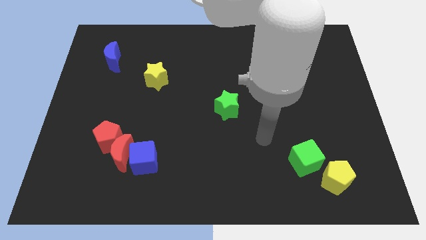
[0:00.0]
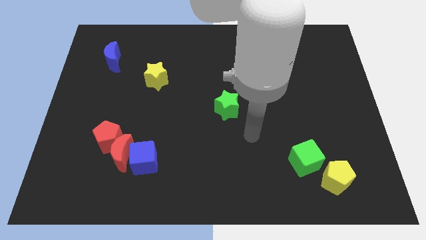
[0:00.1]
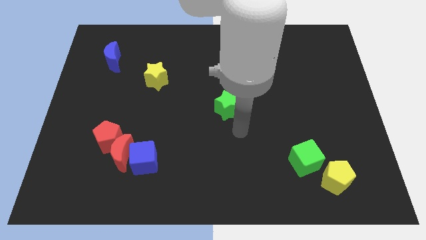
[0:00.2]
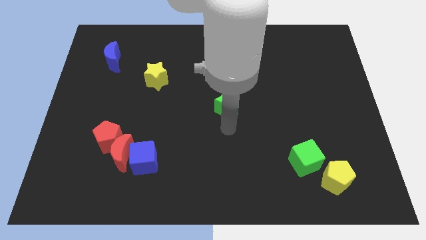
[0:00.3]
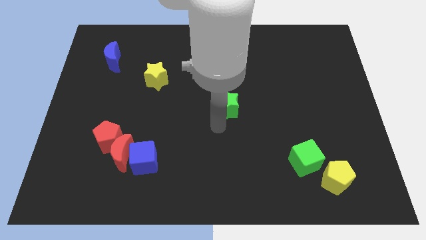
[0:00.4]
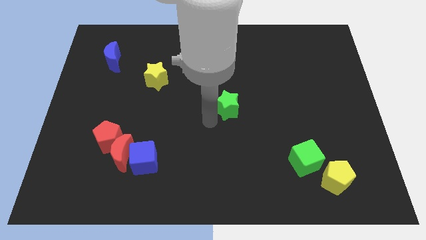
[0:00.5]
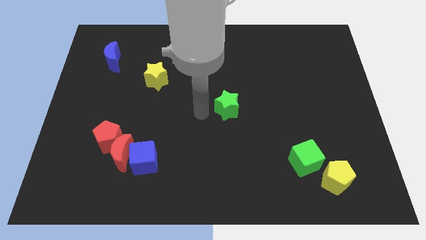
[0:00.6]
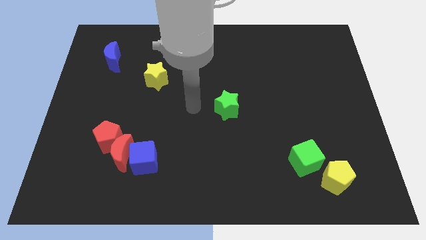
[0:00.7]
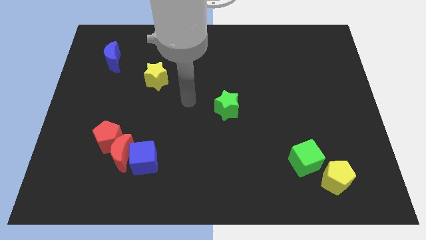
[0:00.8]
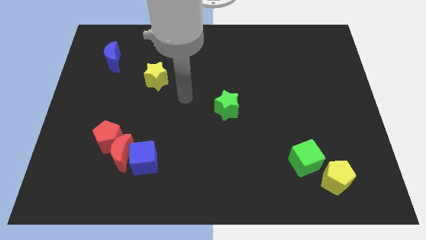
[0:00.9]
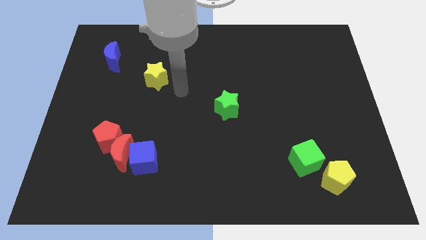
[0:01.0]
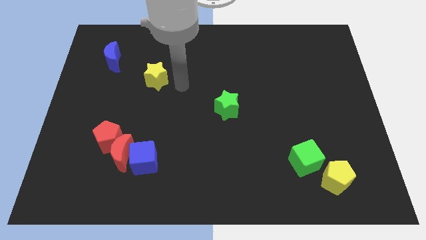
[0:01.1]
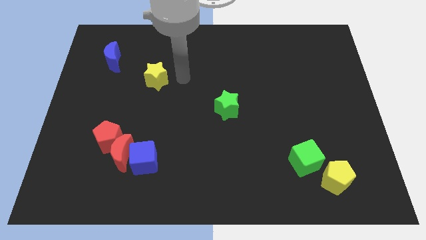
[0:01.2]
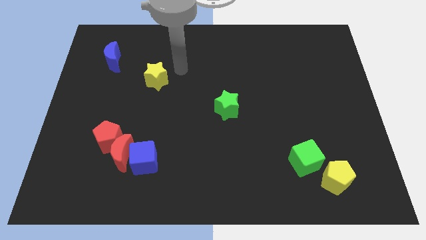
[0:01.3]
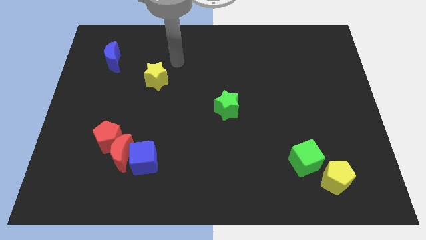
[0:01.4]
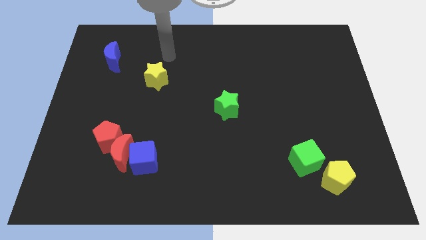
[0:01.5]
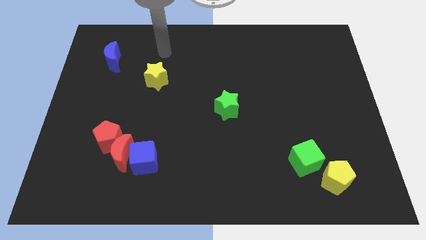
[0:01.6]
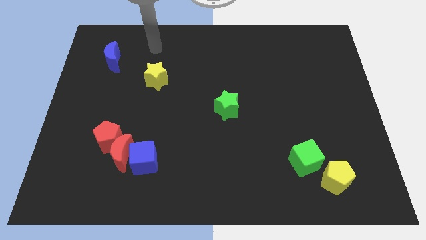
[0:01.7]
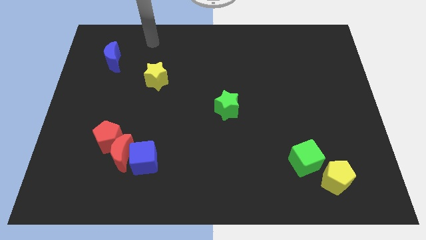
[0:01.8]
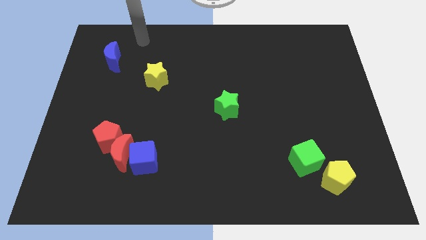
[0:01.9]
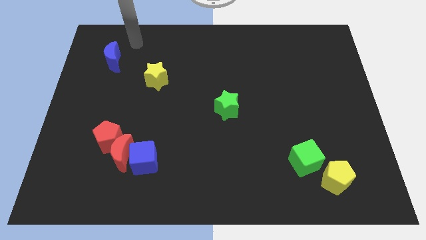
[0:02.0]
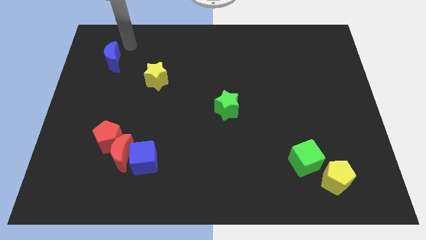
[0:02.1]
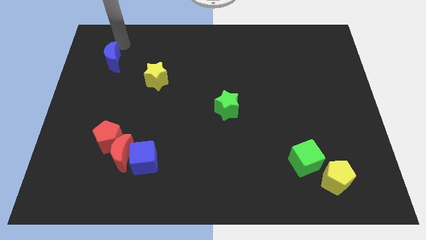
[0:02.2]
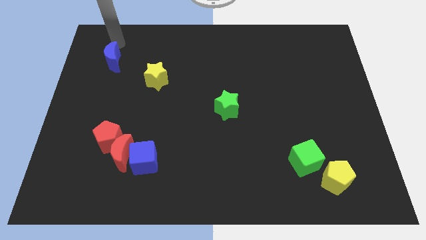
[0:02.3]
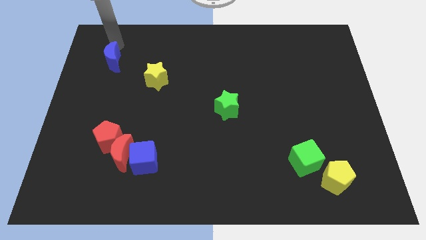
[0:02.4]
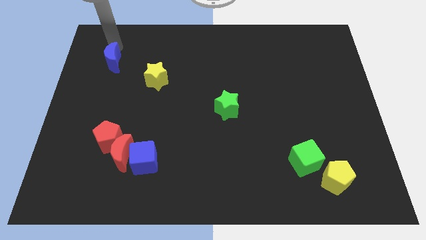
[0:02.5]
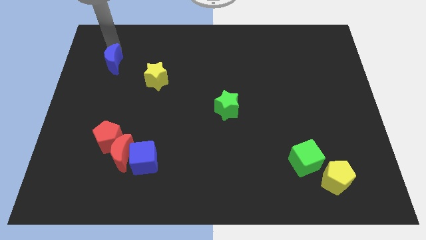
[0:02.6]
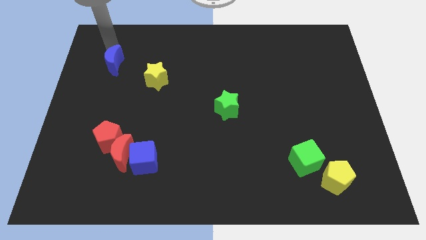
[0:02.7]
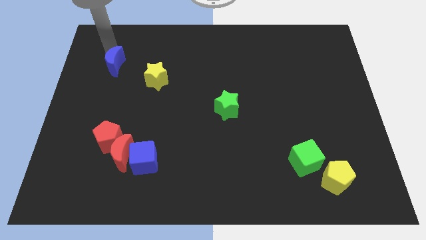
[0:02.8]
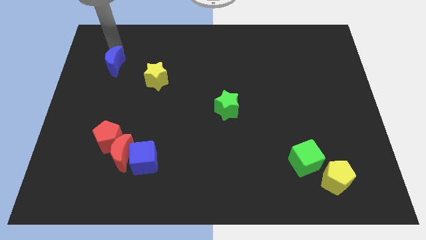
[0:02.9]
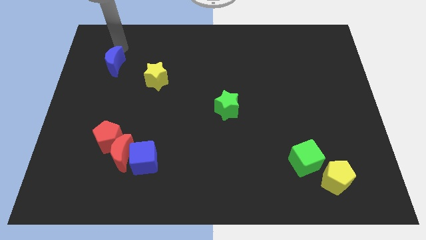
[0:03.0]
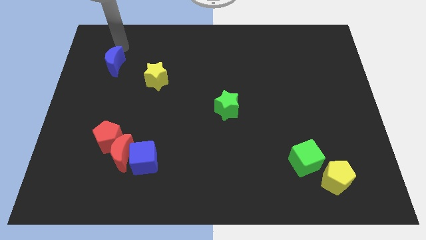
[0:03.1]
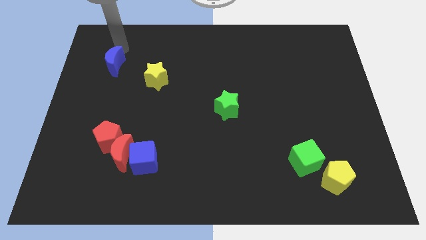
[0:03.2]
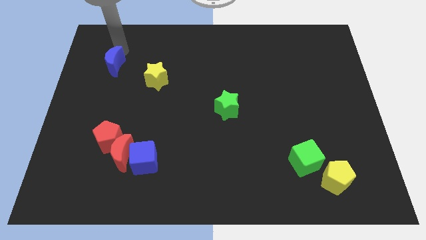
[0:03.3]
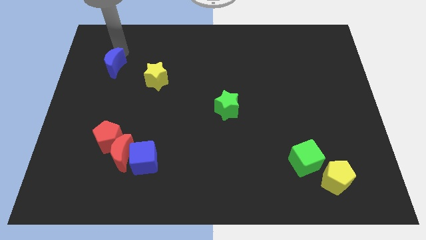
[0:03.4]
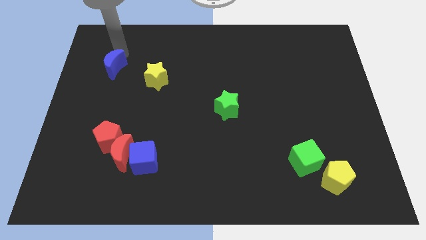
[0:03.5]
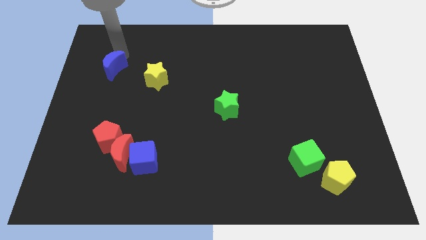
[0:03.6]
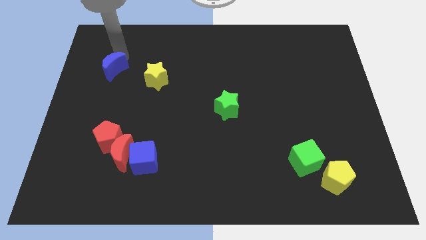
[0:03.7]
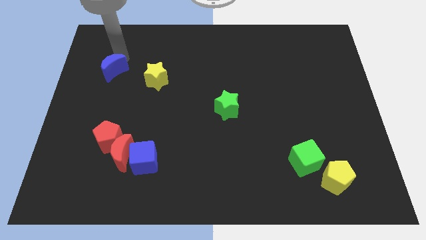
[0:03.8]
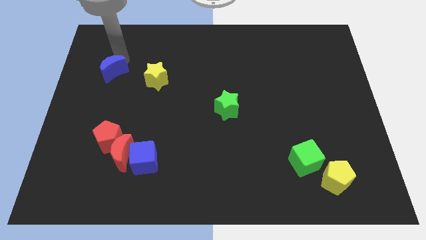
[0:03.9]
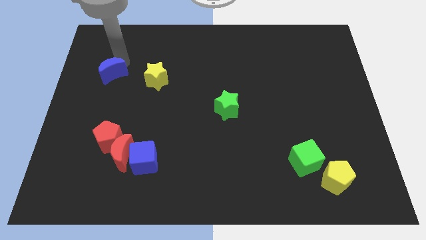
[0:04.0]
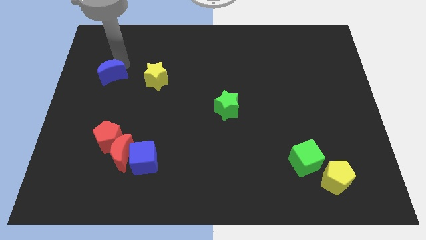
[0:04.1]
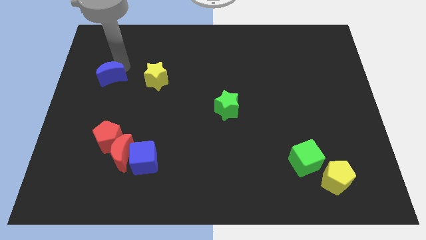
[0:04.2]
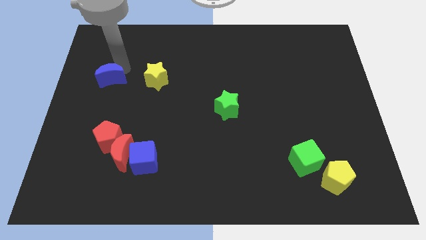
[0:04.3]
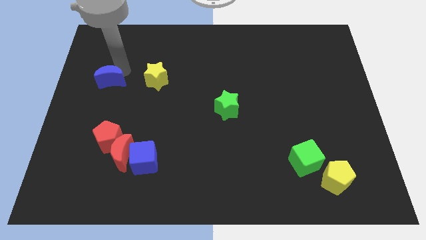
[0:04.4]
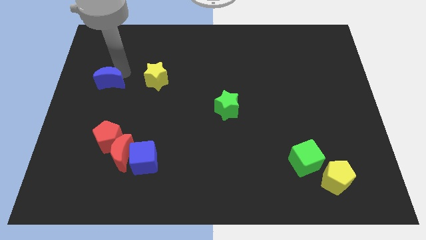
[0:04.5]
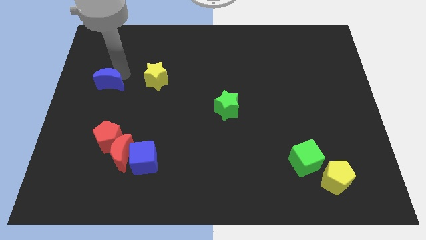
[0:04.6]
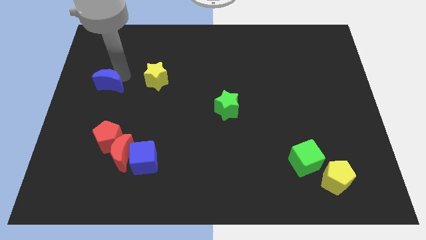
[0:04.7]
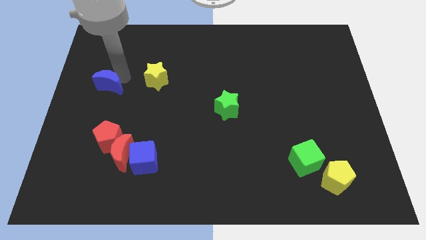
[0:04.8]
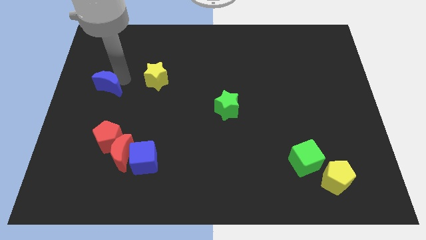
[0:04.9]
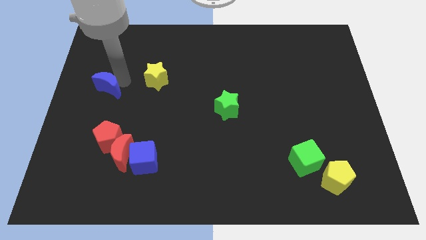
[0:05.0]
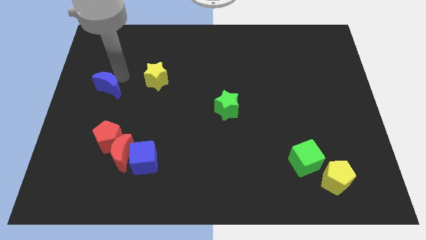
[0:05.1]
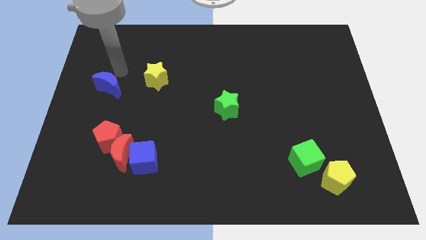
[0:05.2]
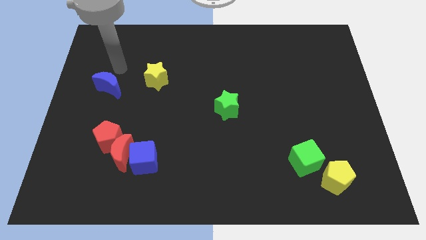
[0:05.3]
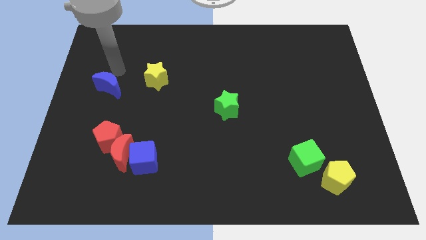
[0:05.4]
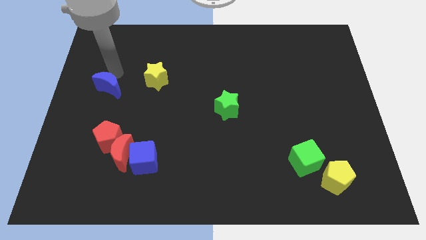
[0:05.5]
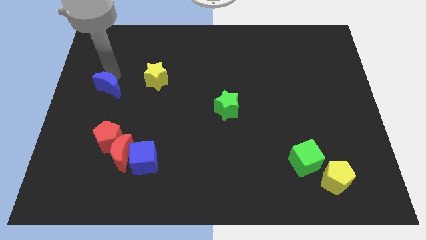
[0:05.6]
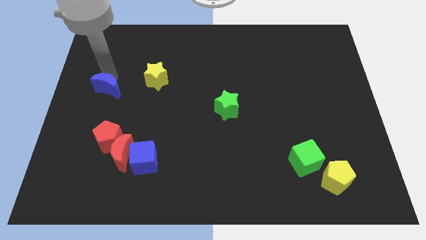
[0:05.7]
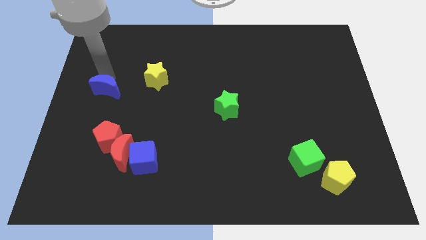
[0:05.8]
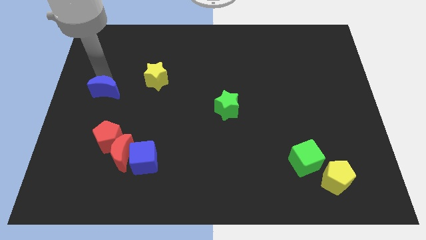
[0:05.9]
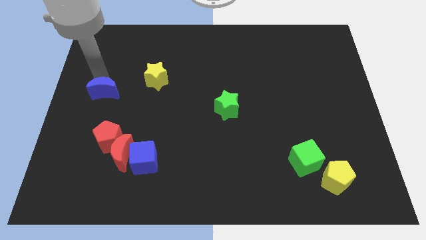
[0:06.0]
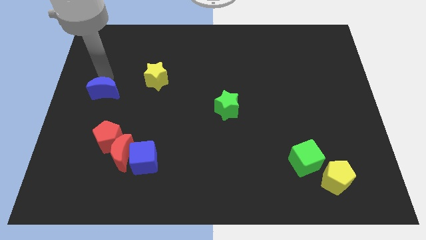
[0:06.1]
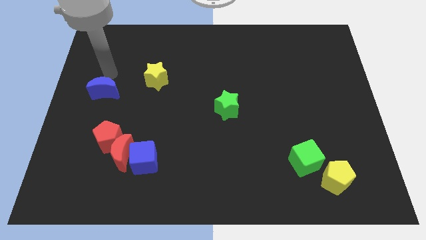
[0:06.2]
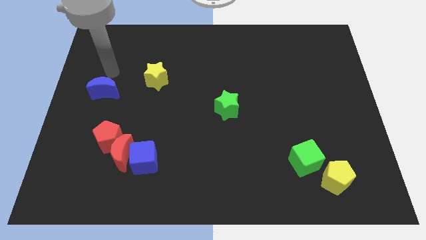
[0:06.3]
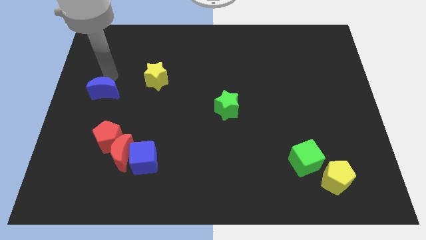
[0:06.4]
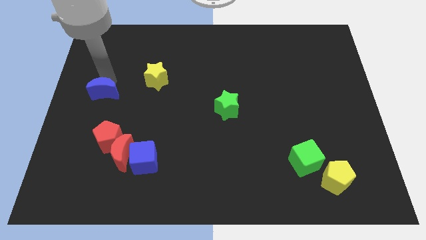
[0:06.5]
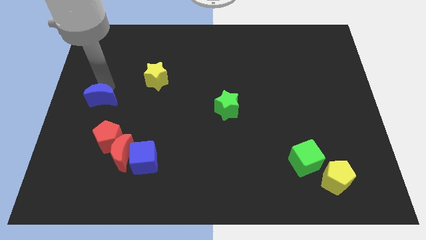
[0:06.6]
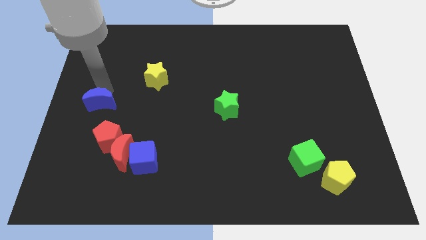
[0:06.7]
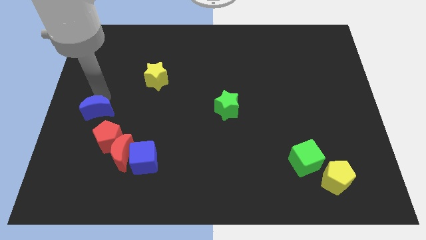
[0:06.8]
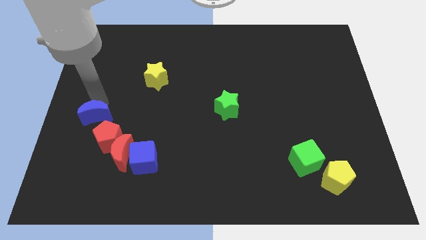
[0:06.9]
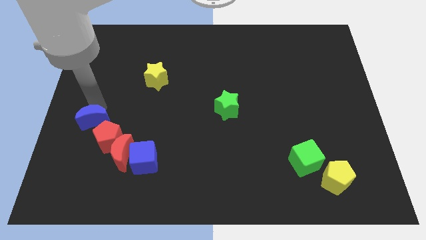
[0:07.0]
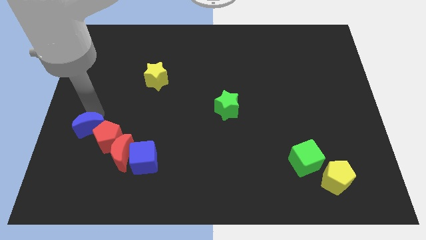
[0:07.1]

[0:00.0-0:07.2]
push the blue moon downwards

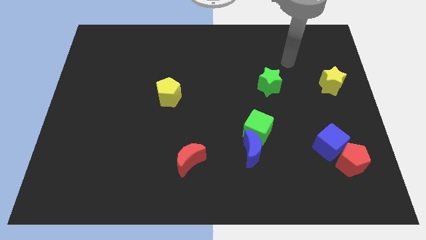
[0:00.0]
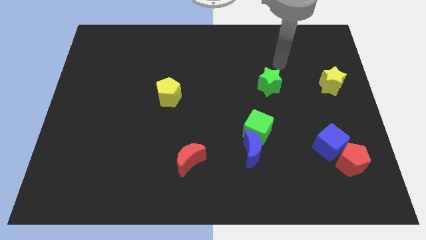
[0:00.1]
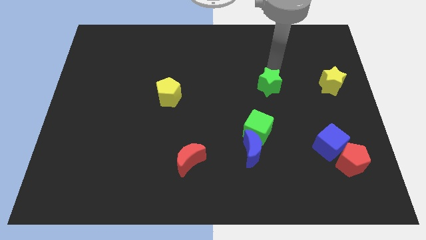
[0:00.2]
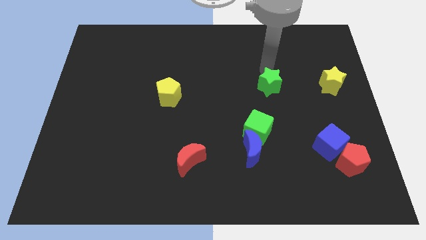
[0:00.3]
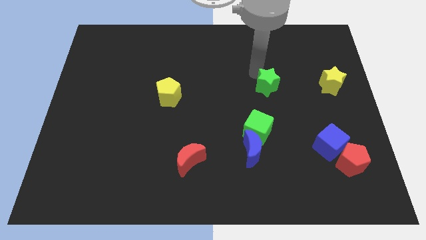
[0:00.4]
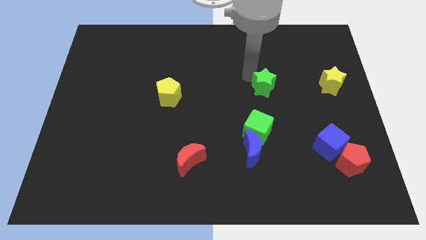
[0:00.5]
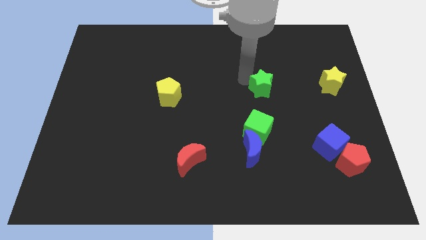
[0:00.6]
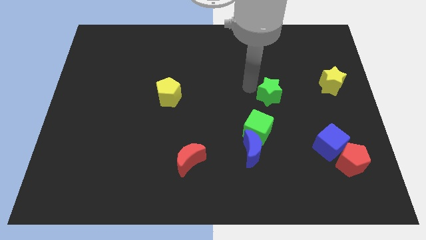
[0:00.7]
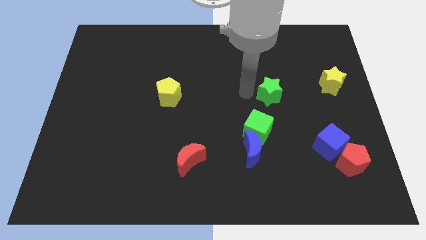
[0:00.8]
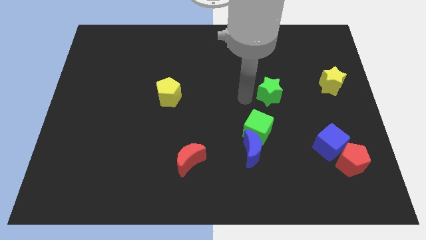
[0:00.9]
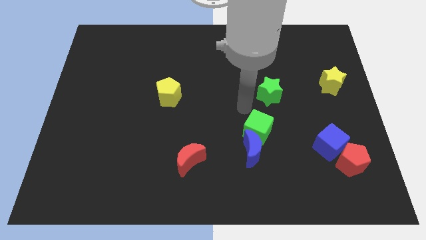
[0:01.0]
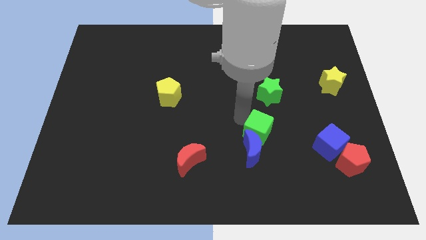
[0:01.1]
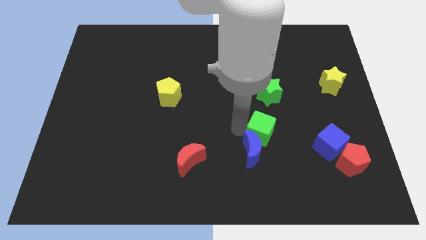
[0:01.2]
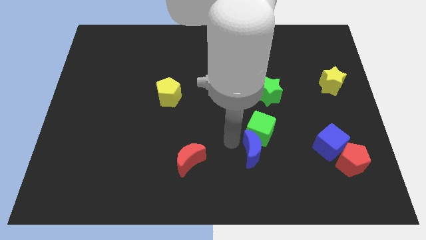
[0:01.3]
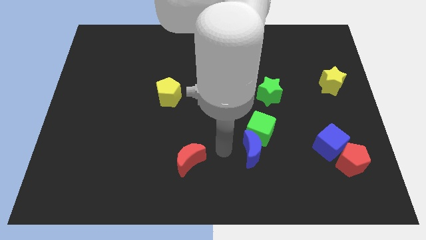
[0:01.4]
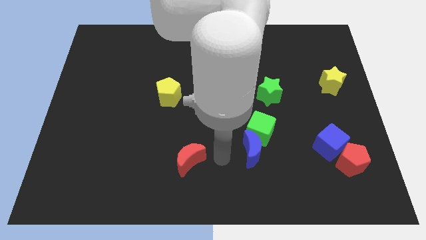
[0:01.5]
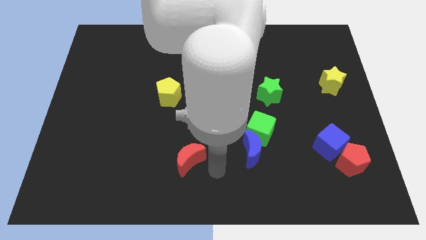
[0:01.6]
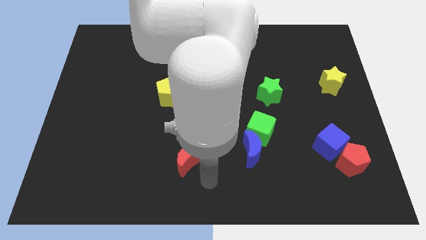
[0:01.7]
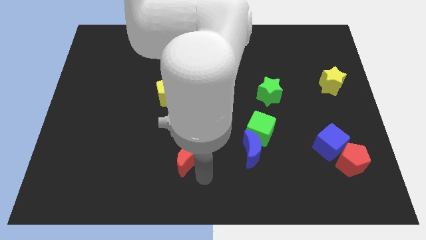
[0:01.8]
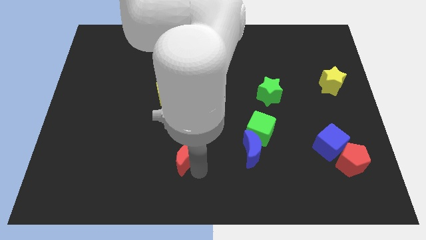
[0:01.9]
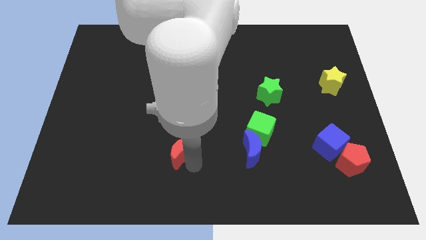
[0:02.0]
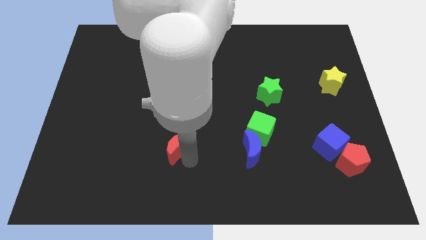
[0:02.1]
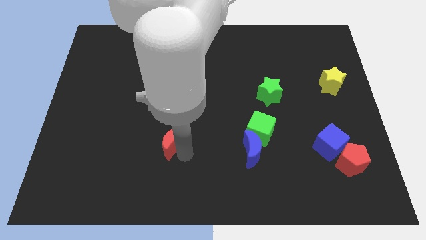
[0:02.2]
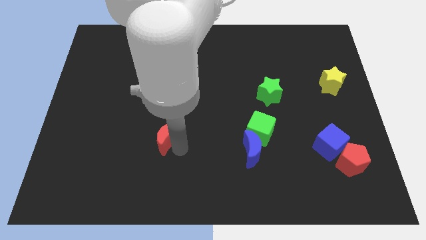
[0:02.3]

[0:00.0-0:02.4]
slide the red moon slightly up and left diagonally
